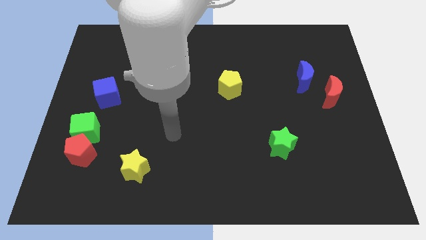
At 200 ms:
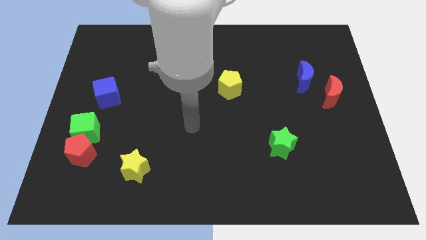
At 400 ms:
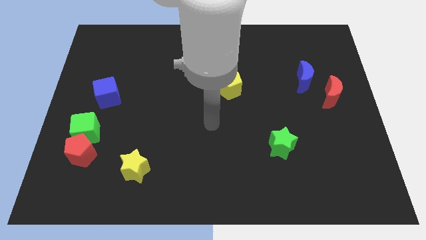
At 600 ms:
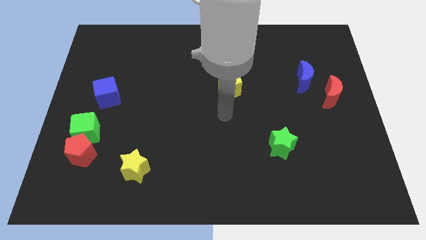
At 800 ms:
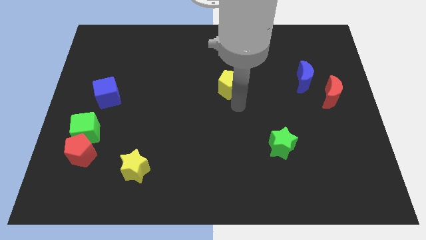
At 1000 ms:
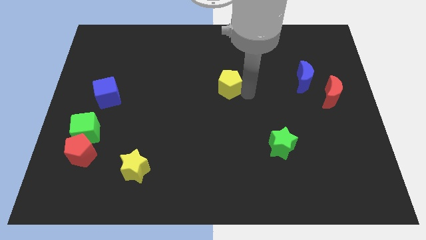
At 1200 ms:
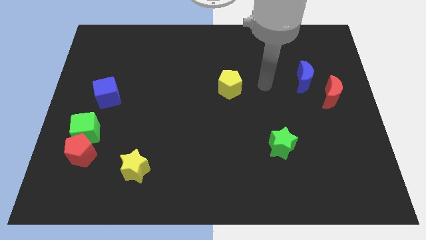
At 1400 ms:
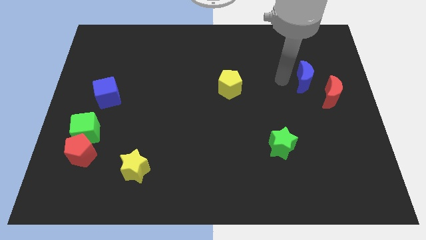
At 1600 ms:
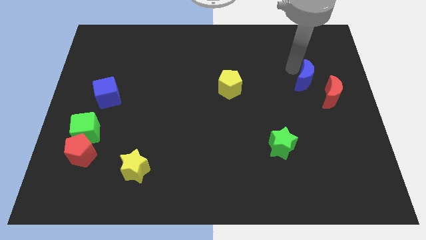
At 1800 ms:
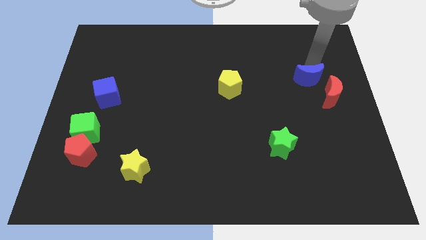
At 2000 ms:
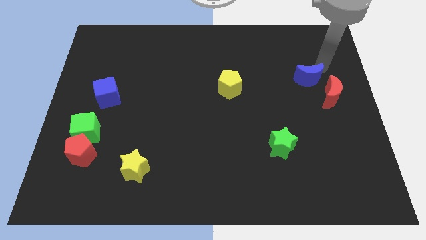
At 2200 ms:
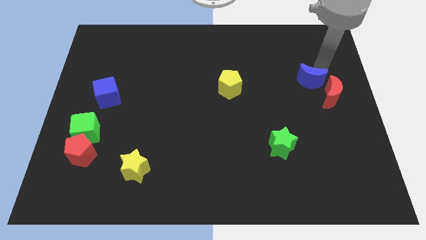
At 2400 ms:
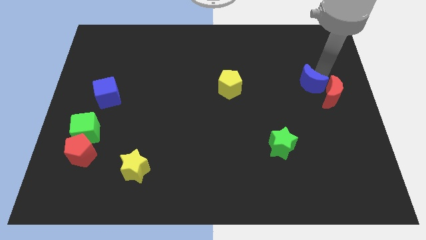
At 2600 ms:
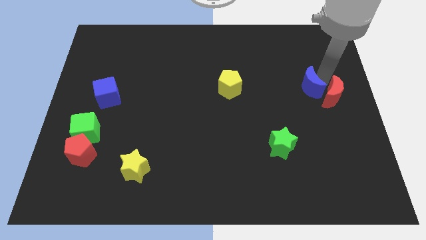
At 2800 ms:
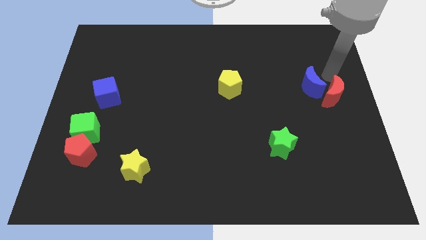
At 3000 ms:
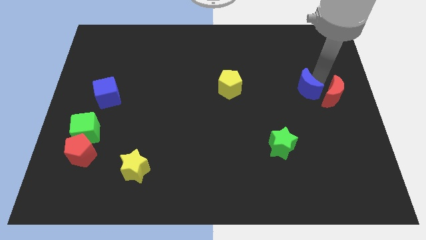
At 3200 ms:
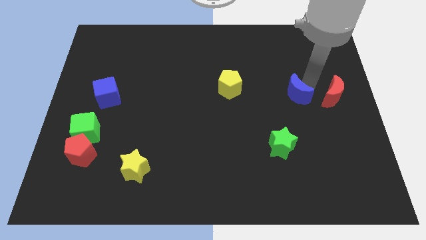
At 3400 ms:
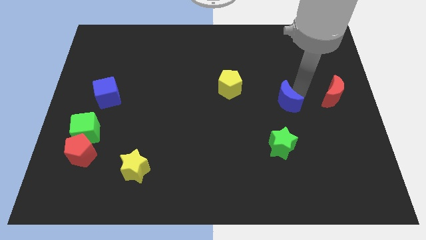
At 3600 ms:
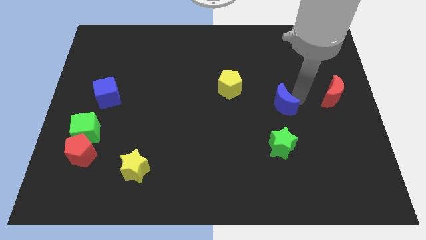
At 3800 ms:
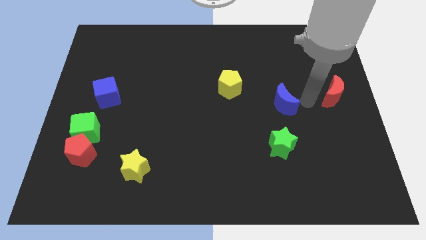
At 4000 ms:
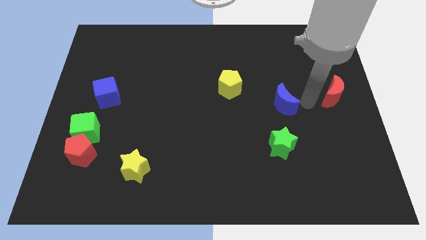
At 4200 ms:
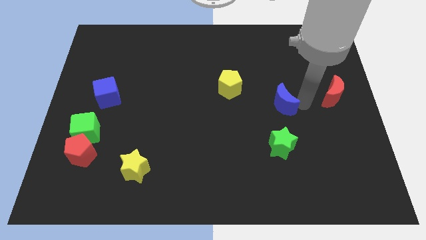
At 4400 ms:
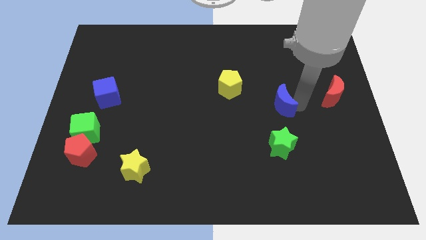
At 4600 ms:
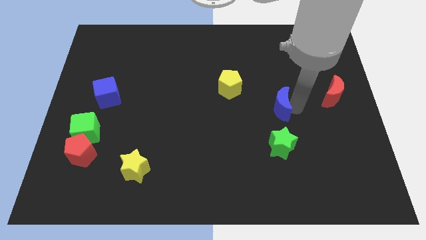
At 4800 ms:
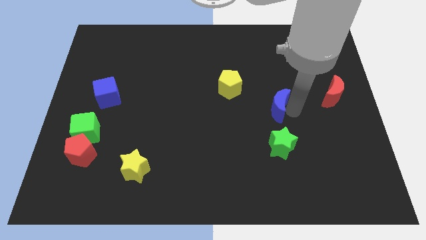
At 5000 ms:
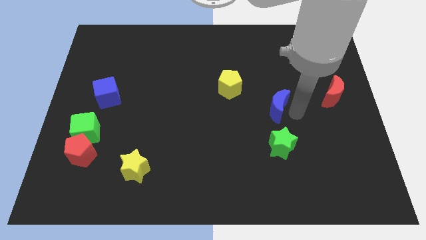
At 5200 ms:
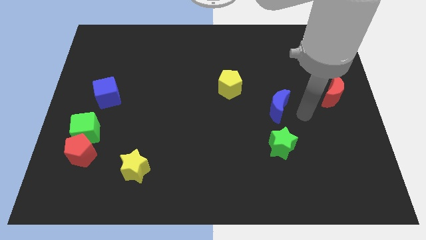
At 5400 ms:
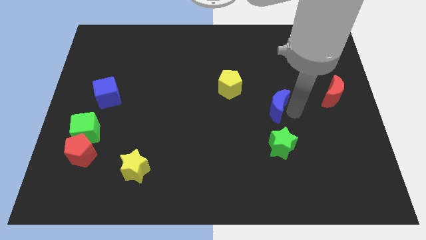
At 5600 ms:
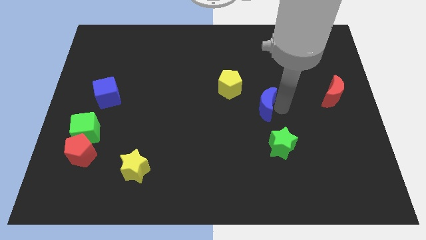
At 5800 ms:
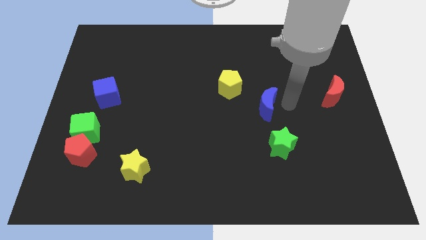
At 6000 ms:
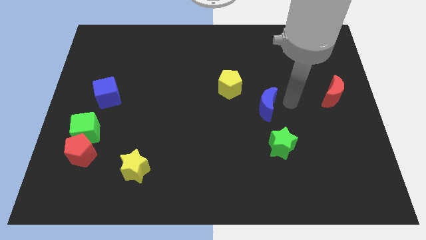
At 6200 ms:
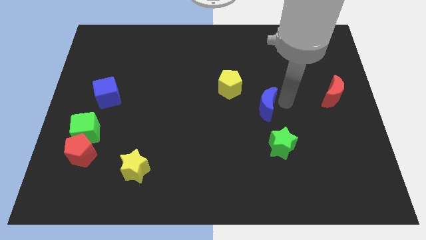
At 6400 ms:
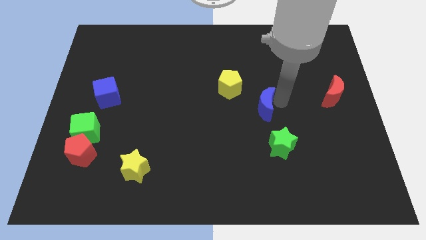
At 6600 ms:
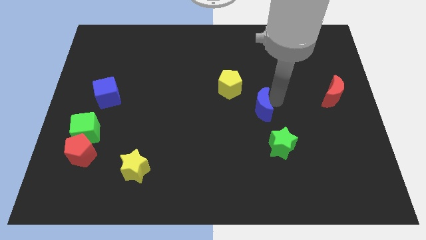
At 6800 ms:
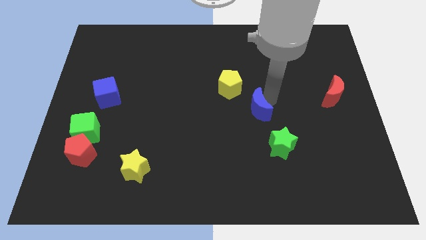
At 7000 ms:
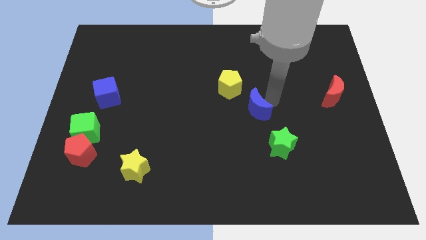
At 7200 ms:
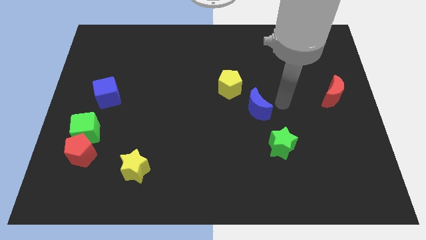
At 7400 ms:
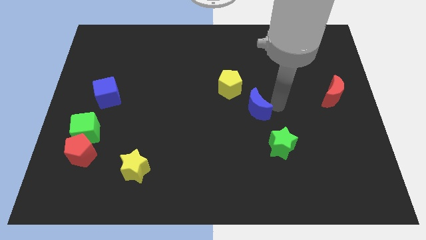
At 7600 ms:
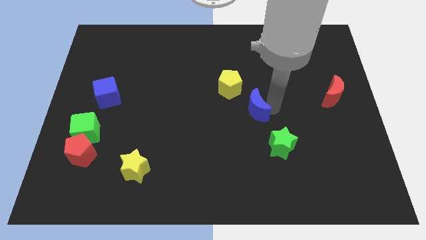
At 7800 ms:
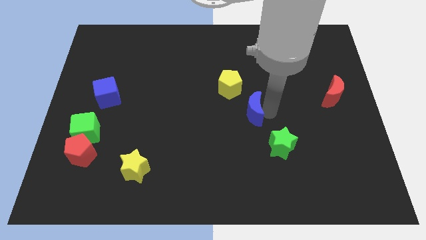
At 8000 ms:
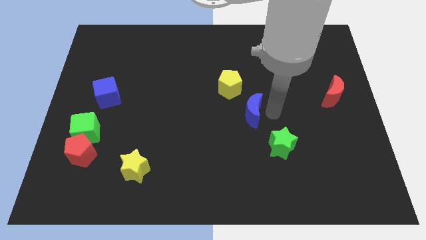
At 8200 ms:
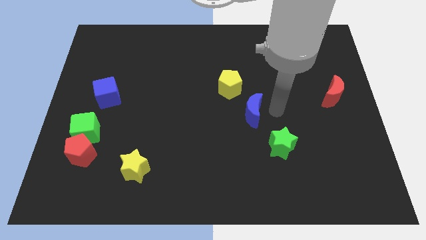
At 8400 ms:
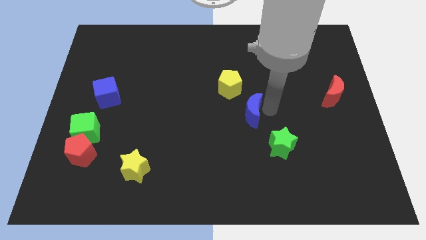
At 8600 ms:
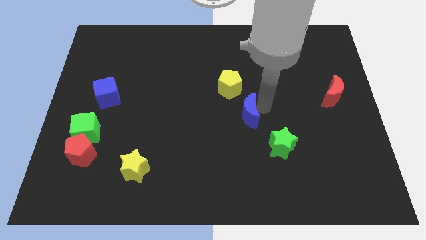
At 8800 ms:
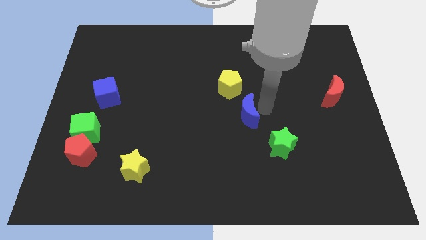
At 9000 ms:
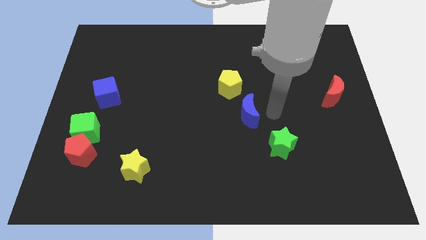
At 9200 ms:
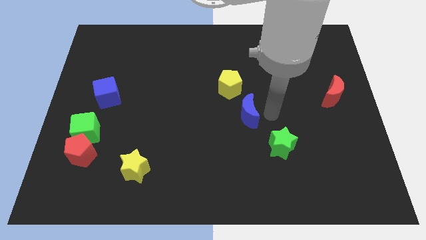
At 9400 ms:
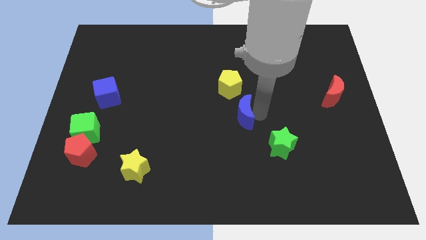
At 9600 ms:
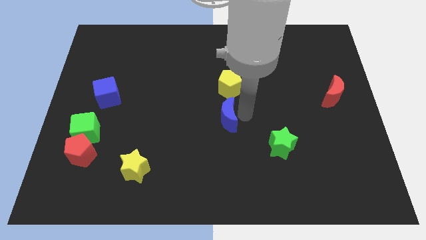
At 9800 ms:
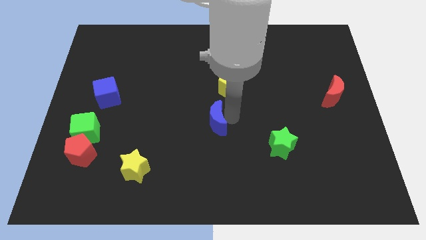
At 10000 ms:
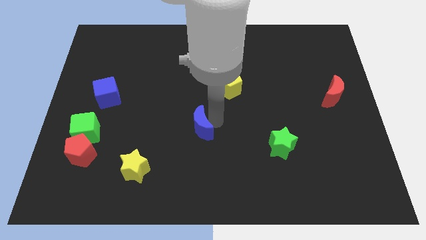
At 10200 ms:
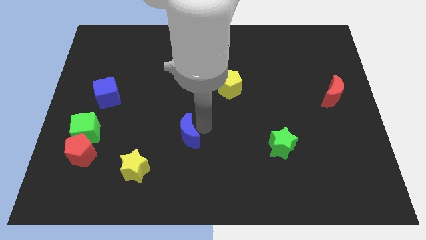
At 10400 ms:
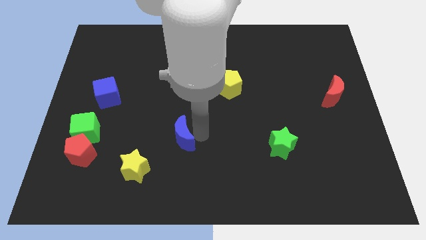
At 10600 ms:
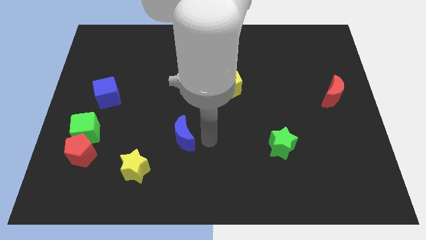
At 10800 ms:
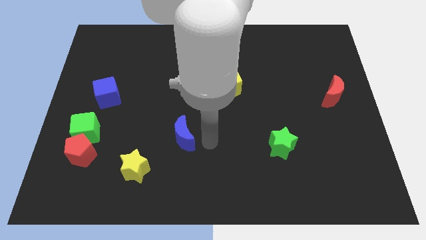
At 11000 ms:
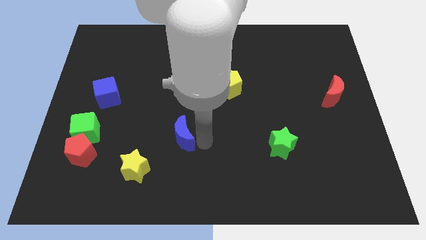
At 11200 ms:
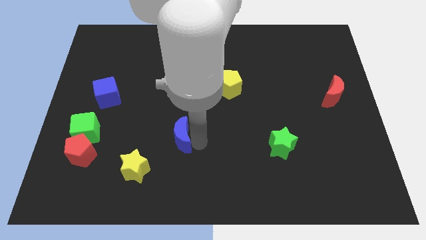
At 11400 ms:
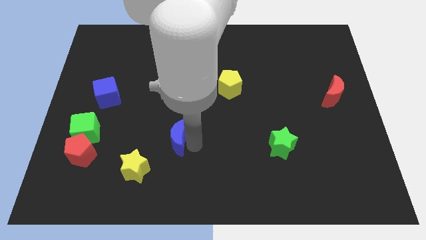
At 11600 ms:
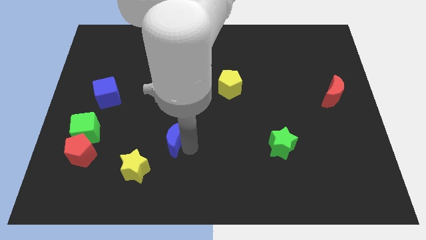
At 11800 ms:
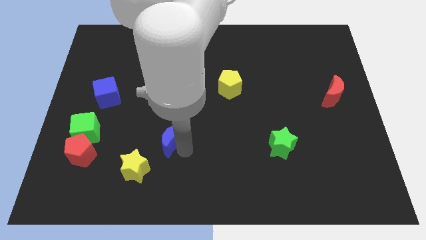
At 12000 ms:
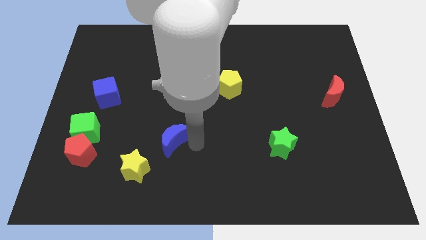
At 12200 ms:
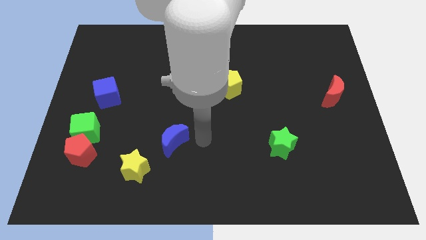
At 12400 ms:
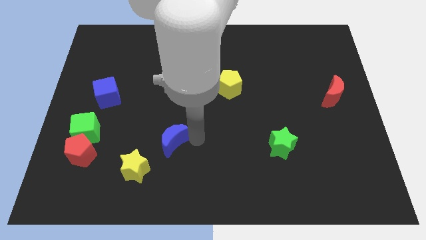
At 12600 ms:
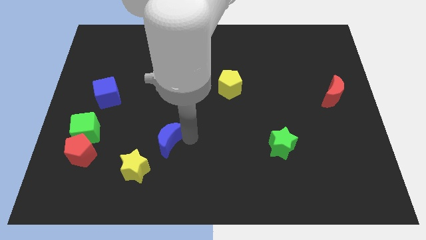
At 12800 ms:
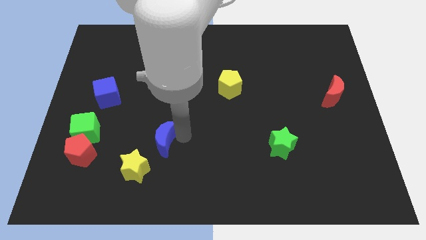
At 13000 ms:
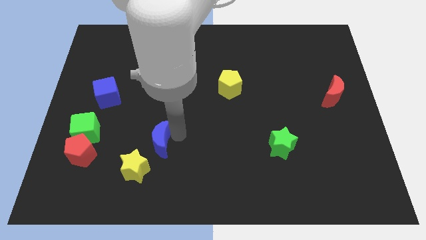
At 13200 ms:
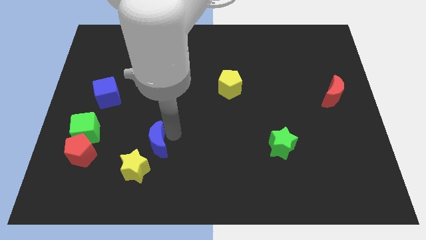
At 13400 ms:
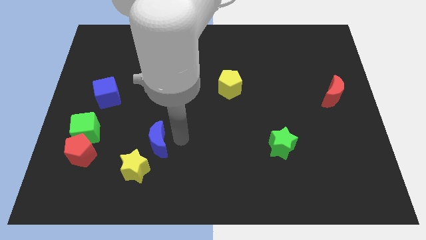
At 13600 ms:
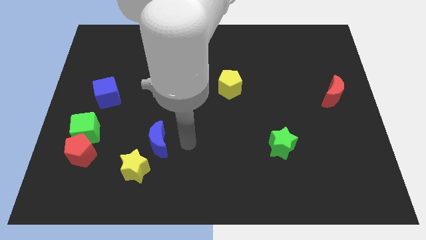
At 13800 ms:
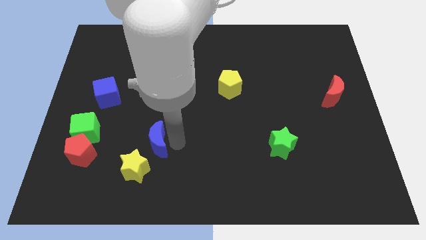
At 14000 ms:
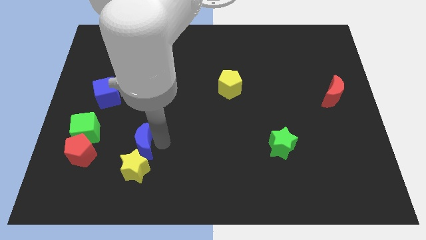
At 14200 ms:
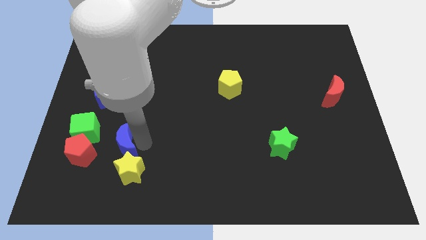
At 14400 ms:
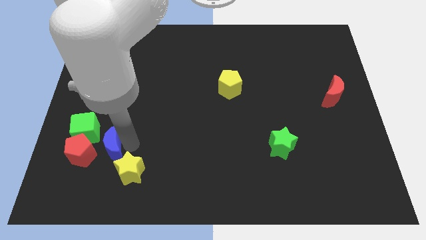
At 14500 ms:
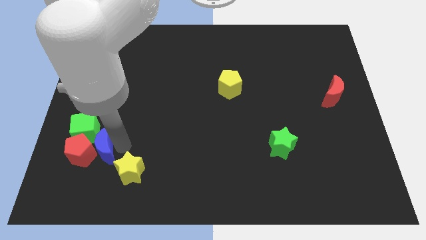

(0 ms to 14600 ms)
put the blue moon close to the red pentagon
